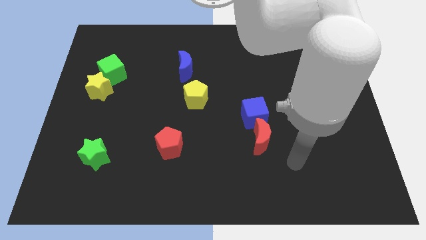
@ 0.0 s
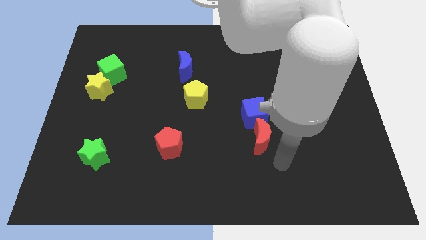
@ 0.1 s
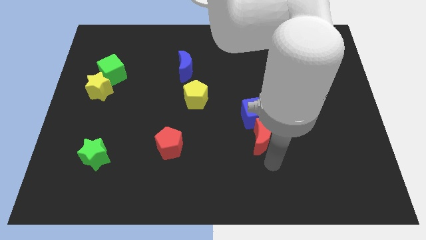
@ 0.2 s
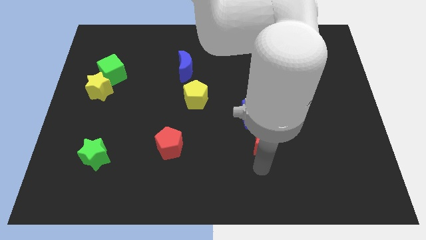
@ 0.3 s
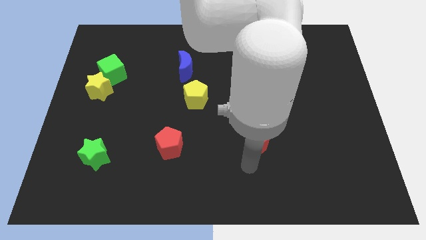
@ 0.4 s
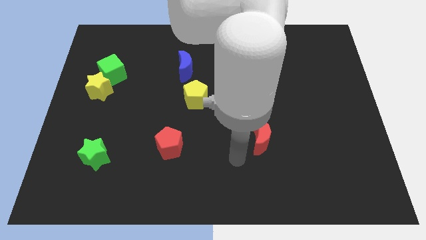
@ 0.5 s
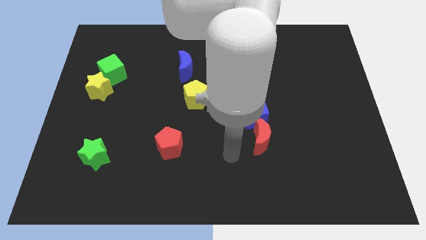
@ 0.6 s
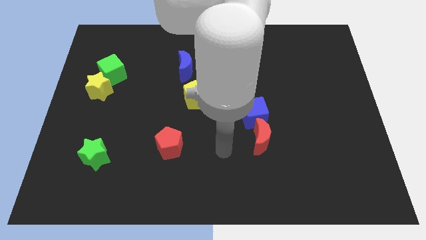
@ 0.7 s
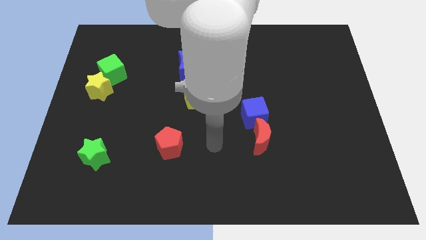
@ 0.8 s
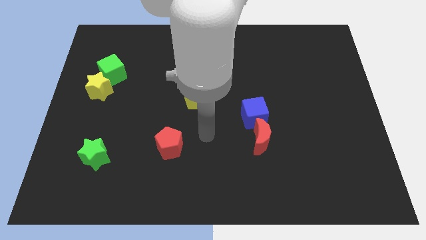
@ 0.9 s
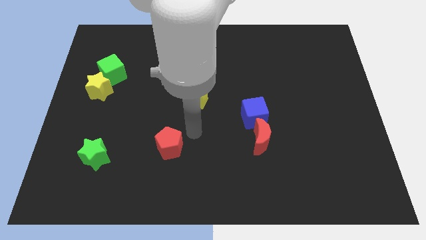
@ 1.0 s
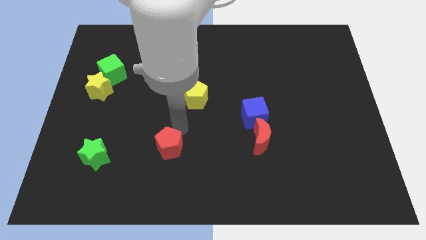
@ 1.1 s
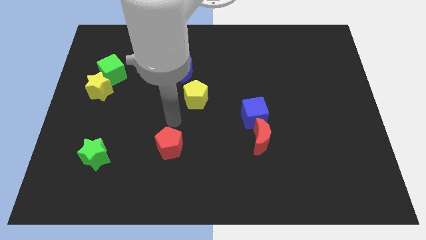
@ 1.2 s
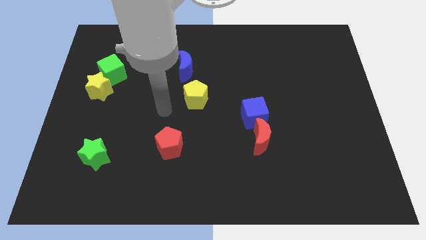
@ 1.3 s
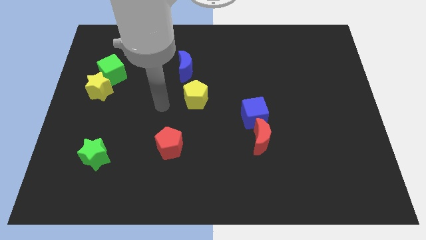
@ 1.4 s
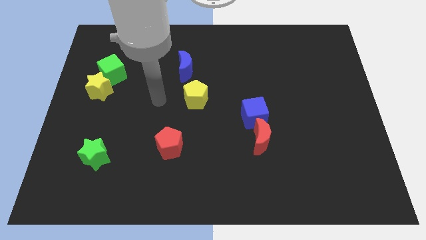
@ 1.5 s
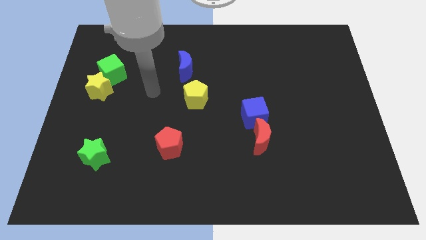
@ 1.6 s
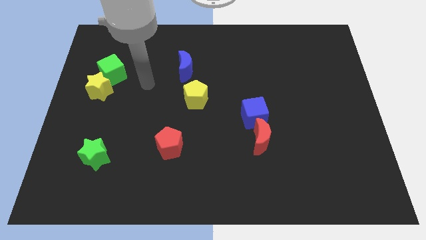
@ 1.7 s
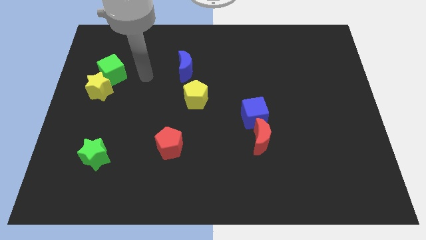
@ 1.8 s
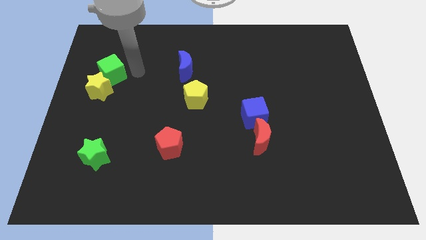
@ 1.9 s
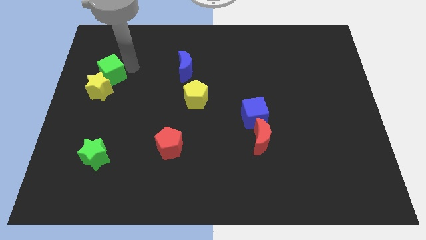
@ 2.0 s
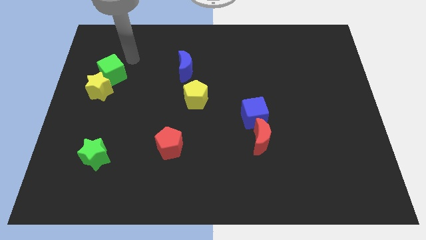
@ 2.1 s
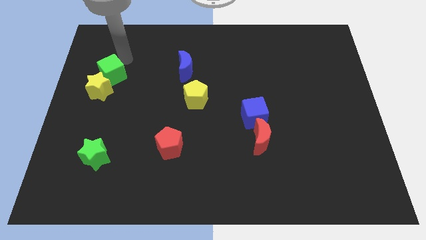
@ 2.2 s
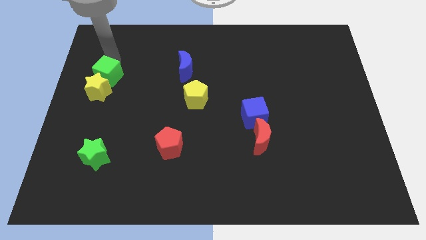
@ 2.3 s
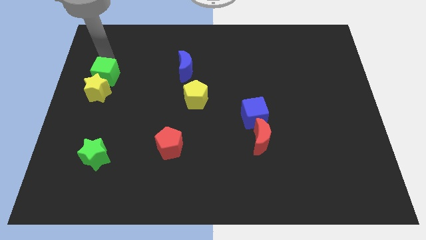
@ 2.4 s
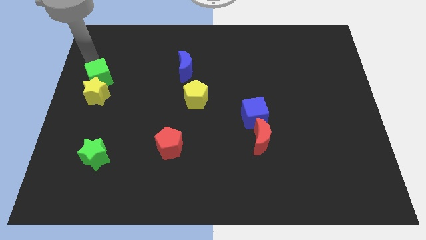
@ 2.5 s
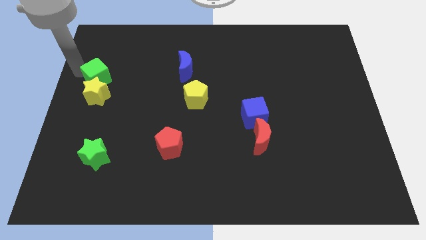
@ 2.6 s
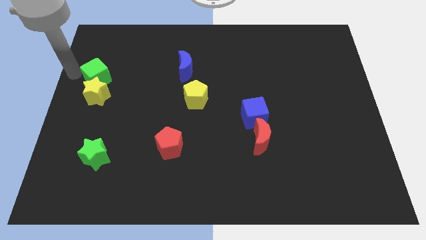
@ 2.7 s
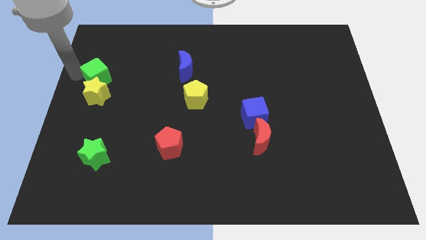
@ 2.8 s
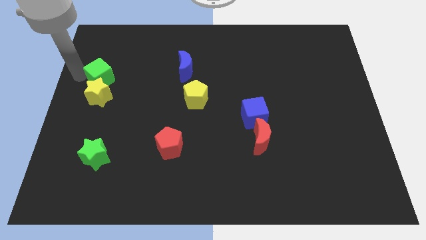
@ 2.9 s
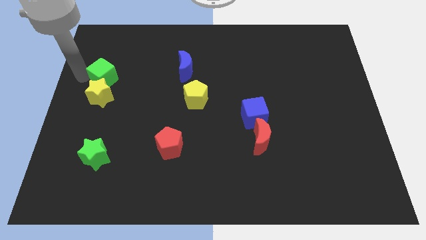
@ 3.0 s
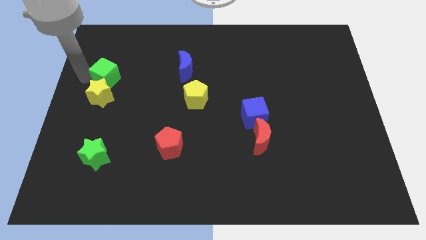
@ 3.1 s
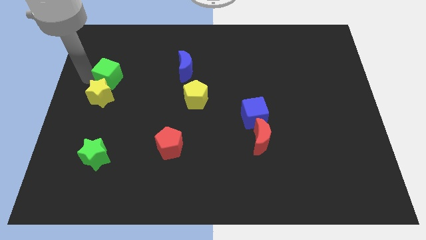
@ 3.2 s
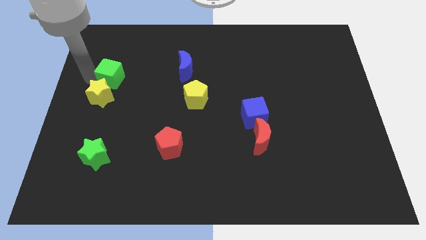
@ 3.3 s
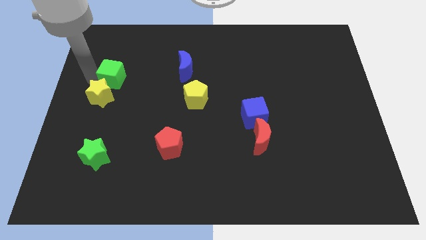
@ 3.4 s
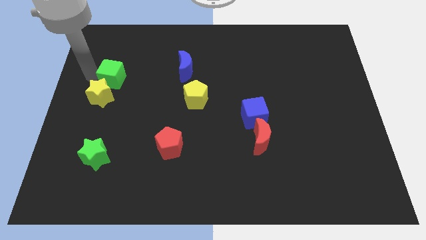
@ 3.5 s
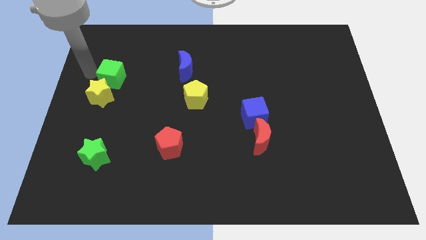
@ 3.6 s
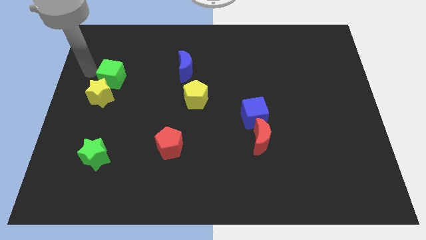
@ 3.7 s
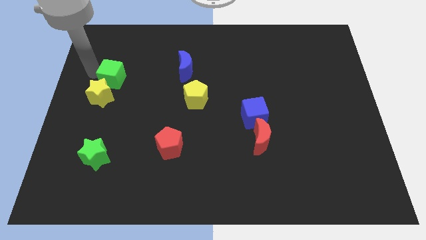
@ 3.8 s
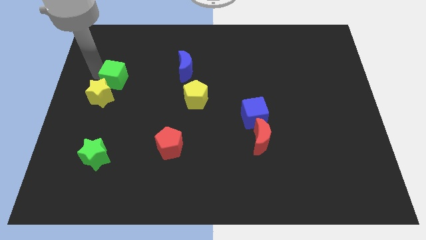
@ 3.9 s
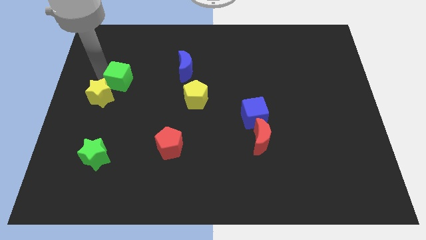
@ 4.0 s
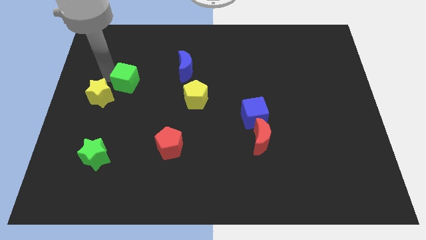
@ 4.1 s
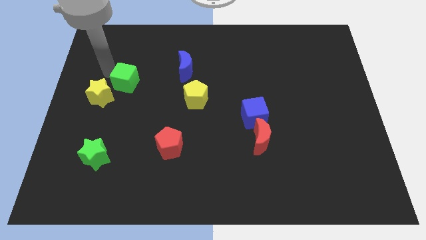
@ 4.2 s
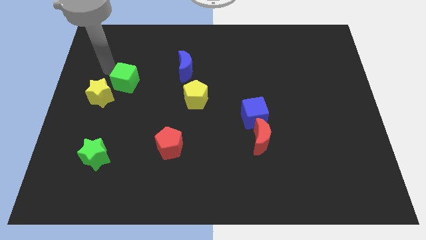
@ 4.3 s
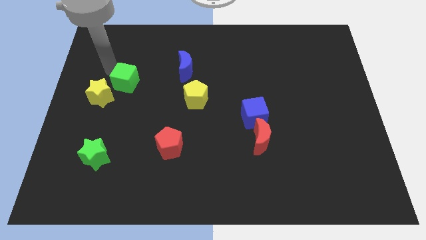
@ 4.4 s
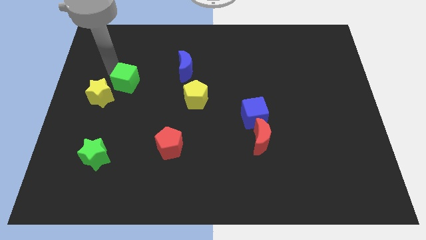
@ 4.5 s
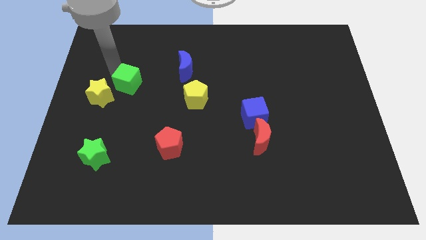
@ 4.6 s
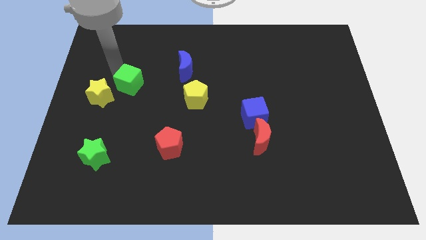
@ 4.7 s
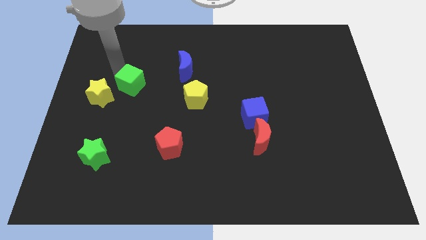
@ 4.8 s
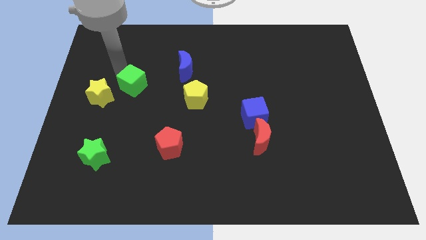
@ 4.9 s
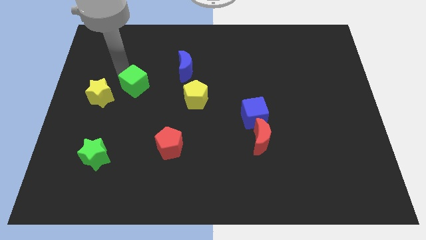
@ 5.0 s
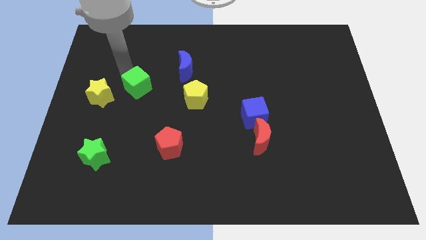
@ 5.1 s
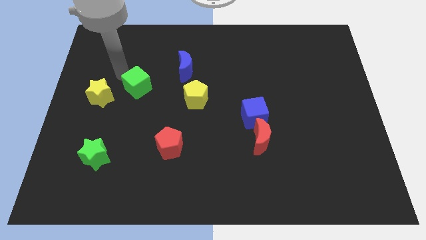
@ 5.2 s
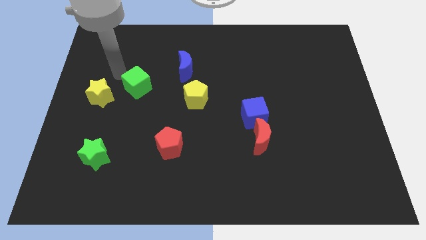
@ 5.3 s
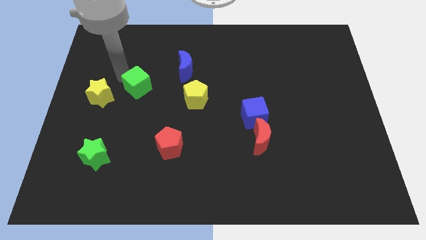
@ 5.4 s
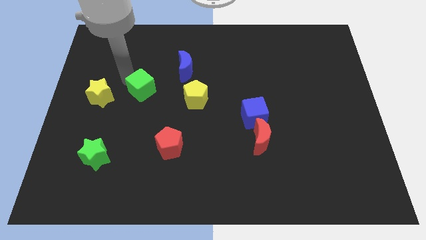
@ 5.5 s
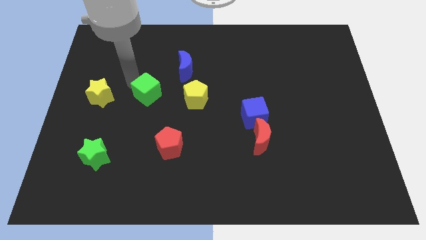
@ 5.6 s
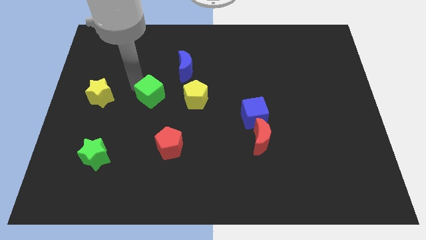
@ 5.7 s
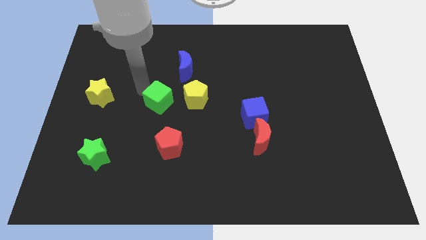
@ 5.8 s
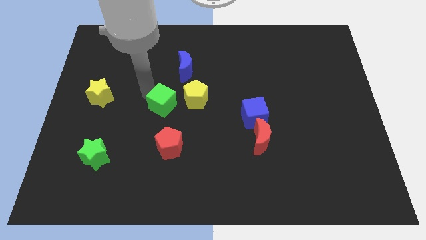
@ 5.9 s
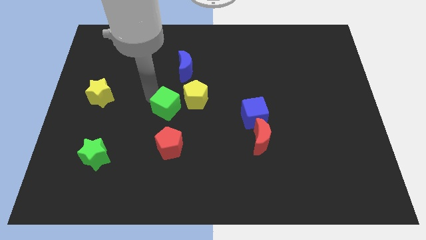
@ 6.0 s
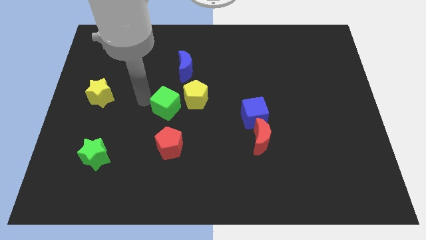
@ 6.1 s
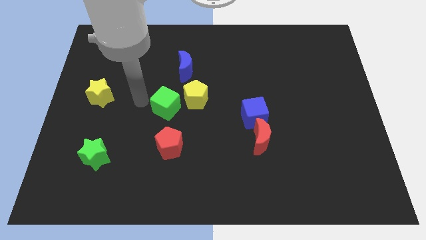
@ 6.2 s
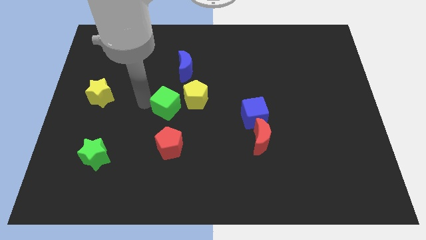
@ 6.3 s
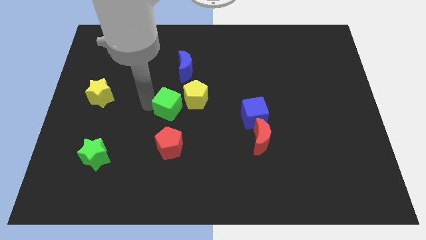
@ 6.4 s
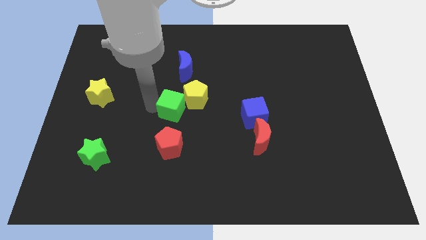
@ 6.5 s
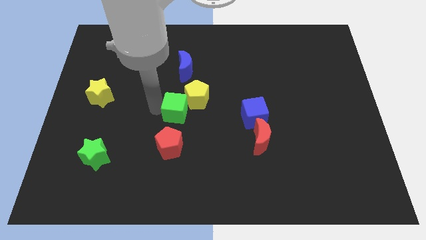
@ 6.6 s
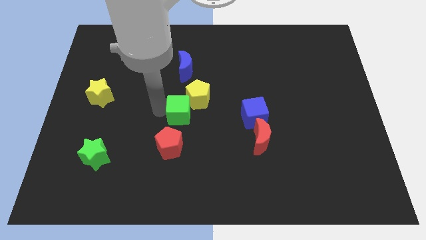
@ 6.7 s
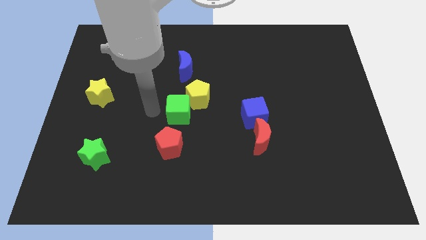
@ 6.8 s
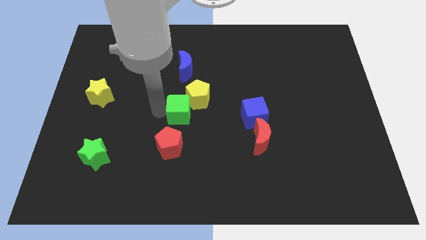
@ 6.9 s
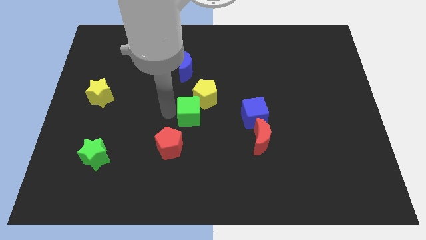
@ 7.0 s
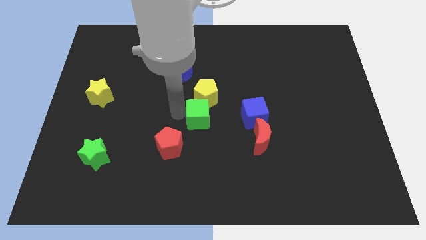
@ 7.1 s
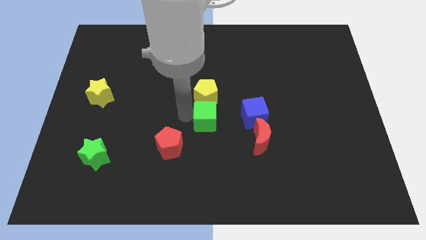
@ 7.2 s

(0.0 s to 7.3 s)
put the green cube diagonally down and to the right of the yellow pentagon

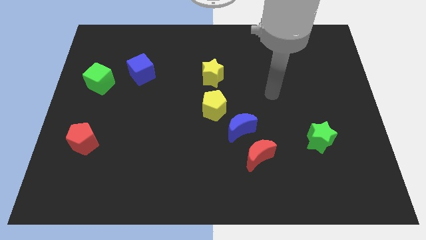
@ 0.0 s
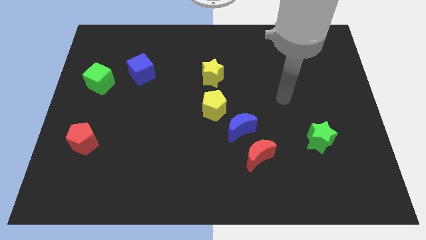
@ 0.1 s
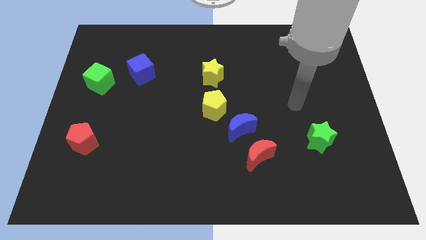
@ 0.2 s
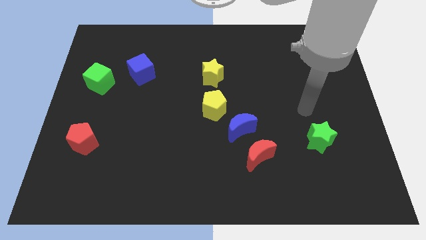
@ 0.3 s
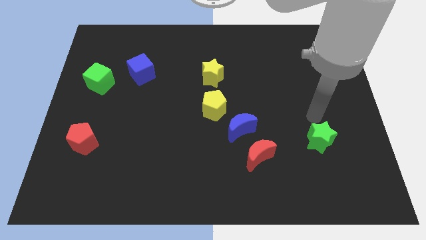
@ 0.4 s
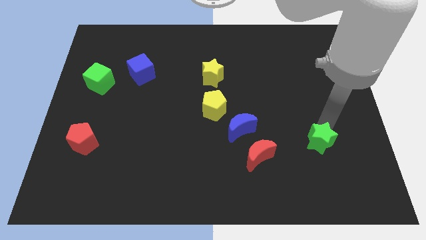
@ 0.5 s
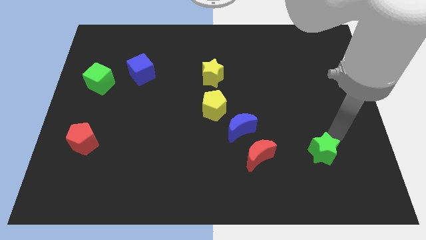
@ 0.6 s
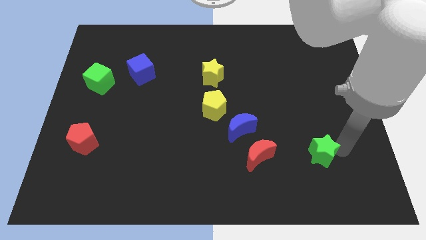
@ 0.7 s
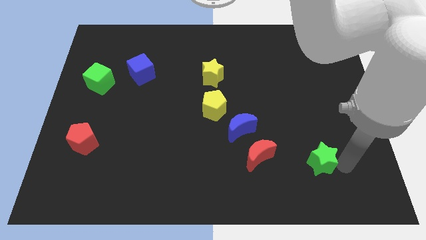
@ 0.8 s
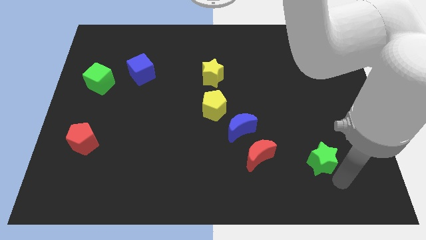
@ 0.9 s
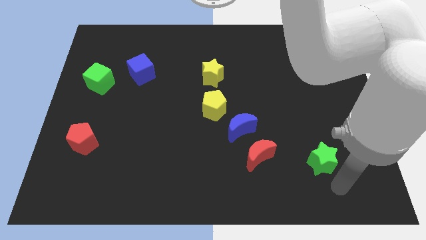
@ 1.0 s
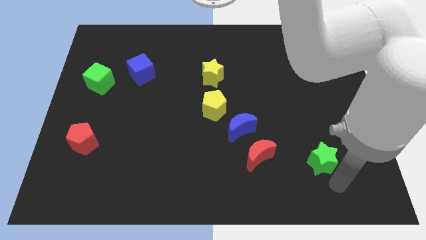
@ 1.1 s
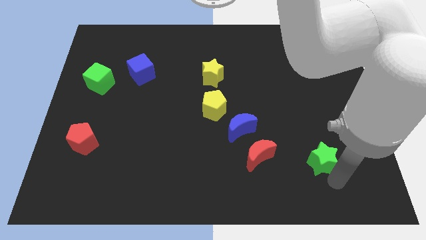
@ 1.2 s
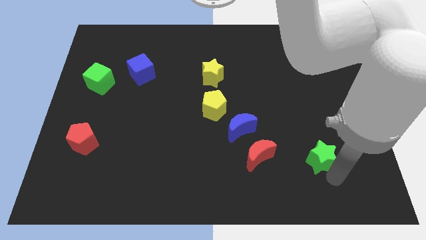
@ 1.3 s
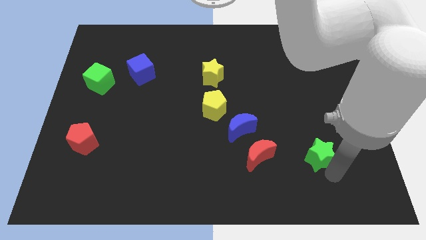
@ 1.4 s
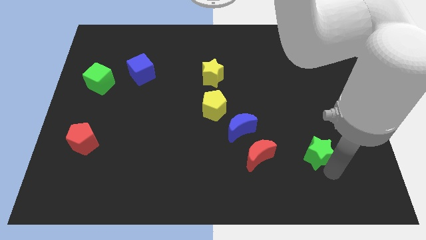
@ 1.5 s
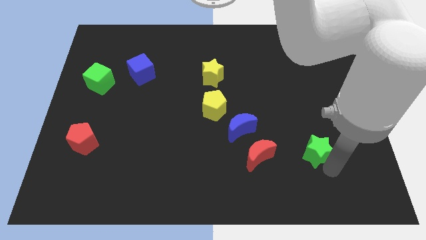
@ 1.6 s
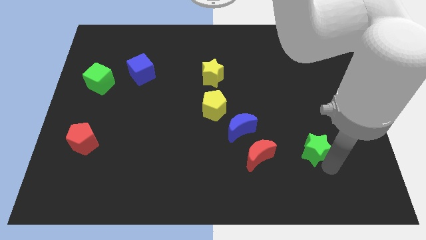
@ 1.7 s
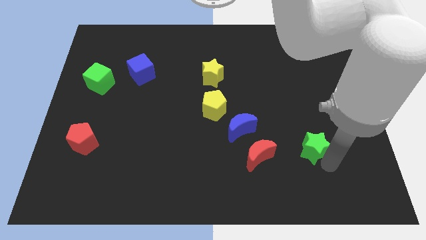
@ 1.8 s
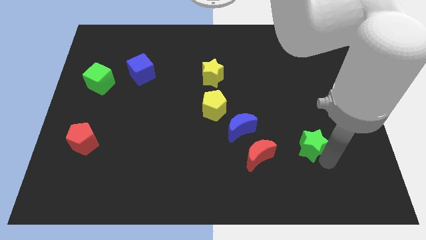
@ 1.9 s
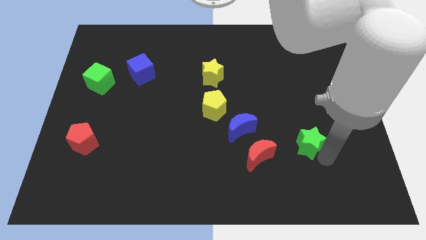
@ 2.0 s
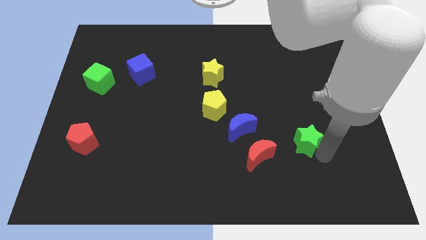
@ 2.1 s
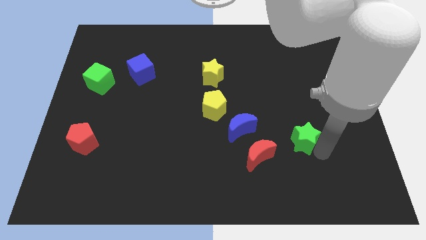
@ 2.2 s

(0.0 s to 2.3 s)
put the green star diagonally up and to the right of the red moon
